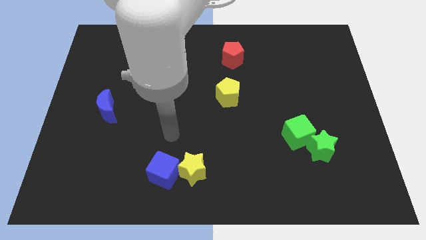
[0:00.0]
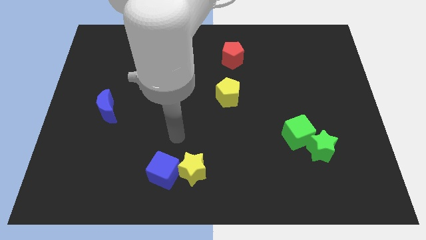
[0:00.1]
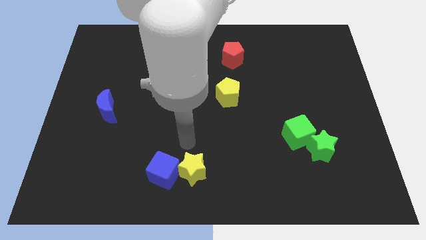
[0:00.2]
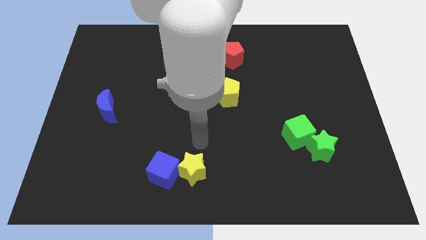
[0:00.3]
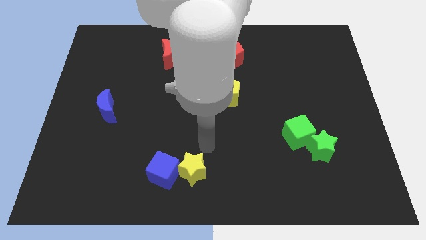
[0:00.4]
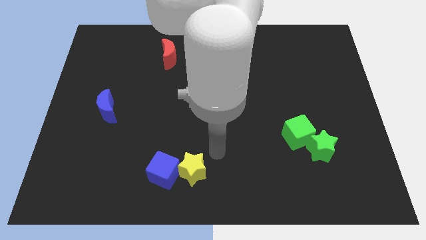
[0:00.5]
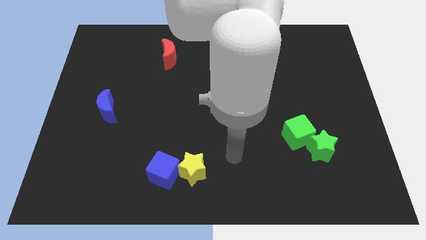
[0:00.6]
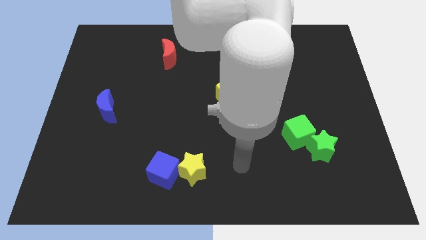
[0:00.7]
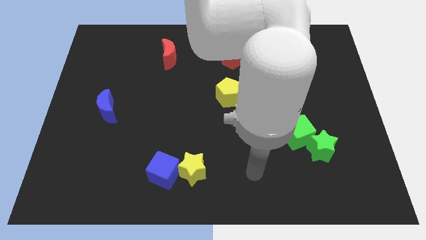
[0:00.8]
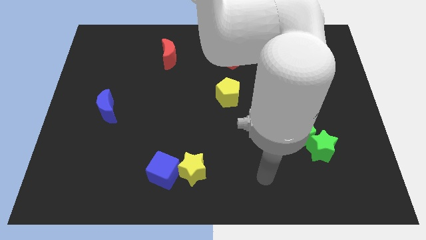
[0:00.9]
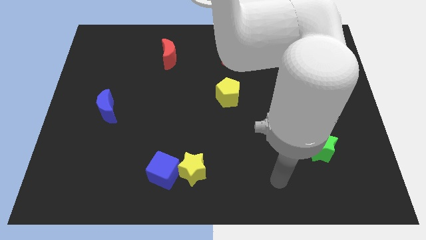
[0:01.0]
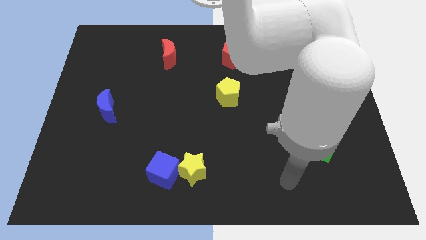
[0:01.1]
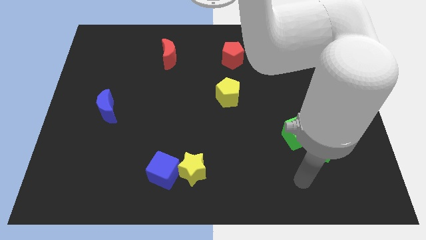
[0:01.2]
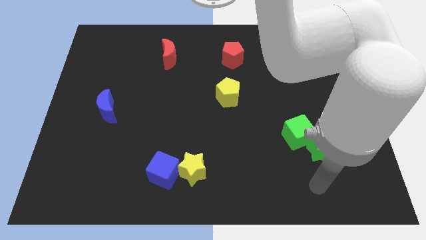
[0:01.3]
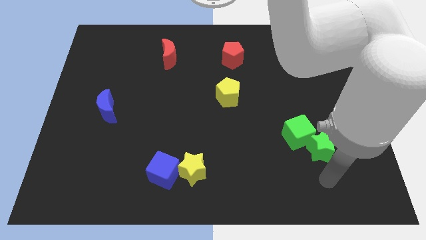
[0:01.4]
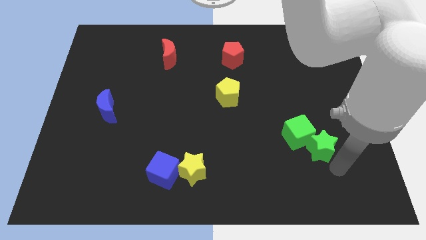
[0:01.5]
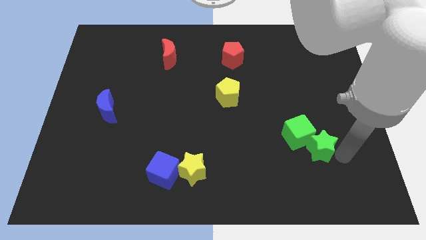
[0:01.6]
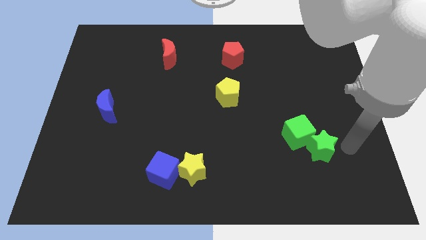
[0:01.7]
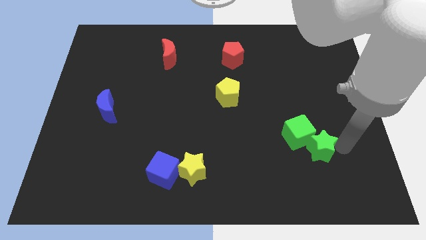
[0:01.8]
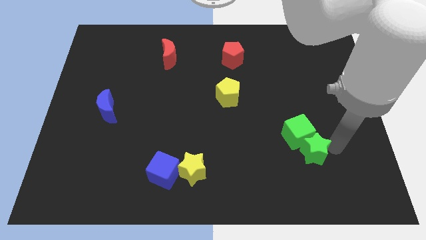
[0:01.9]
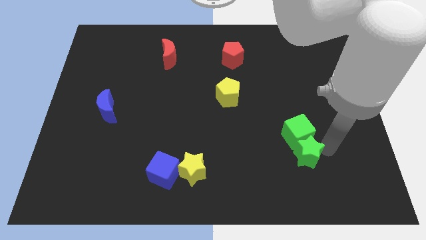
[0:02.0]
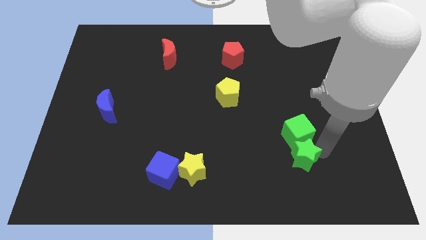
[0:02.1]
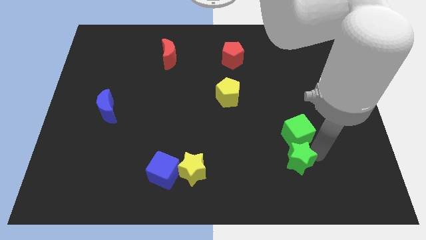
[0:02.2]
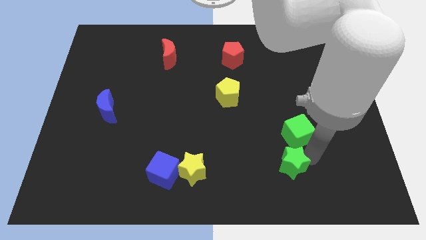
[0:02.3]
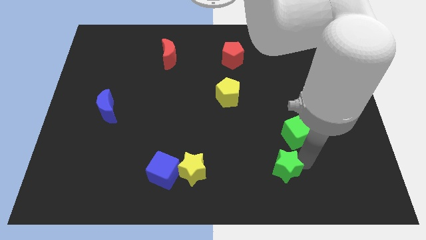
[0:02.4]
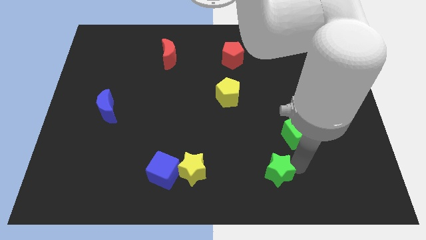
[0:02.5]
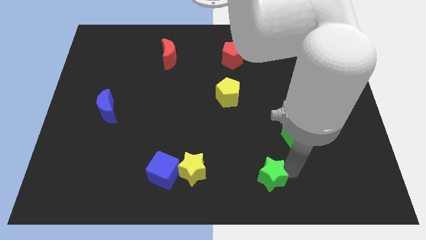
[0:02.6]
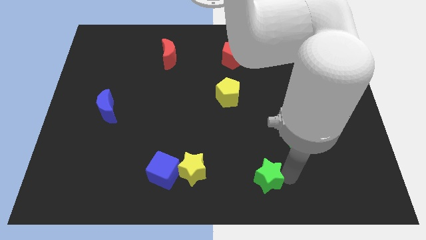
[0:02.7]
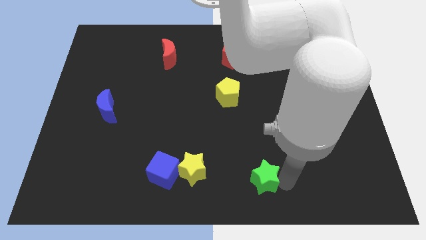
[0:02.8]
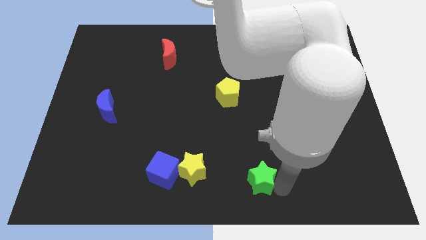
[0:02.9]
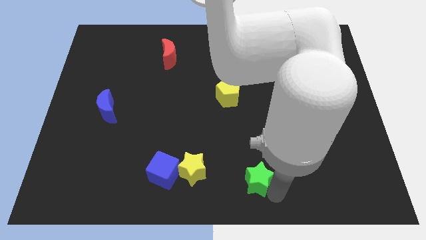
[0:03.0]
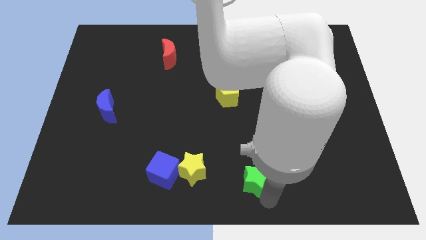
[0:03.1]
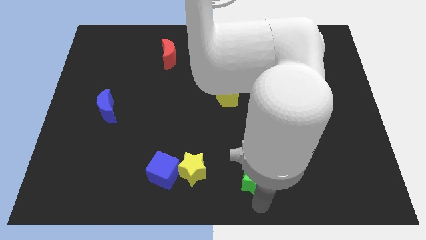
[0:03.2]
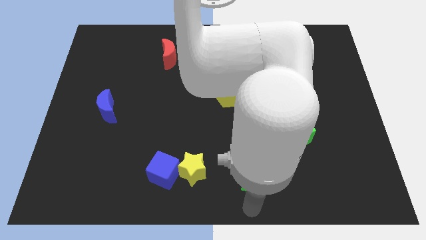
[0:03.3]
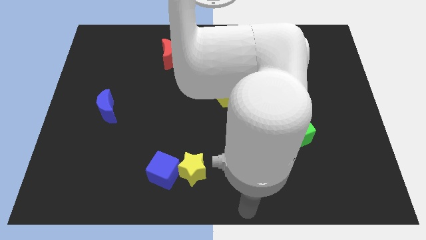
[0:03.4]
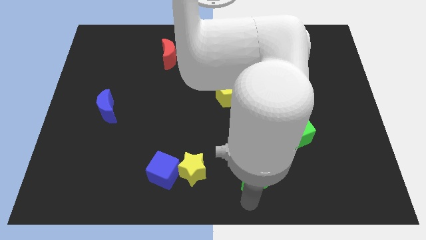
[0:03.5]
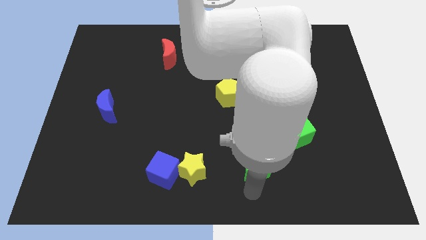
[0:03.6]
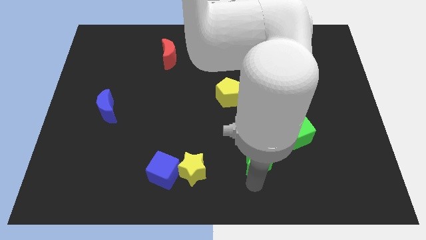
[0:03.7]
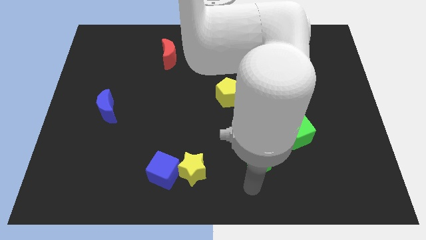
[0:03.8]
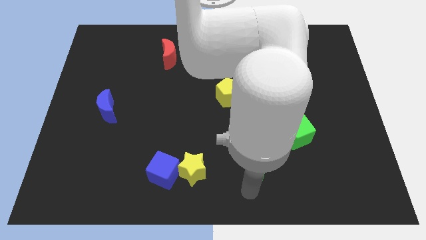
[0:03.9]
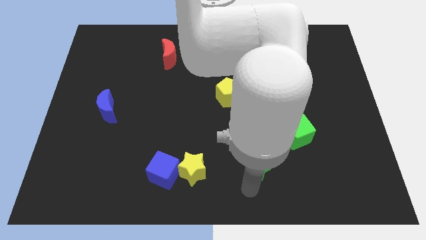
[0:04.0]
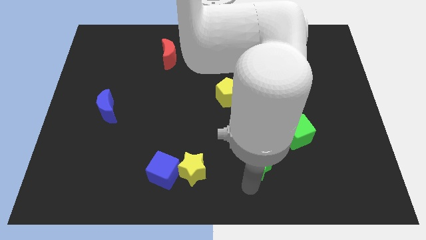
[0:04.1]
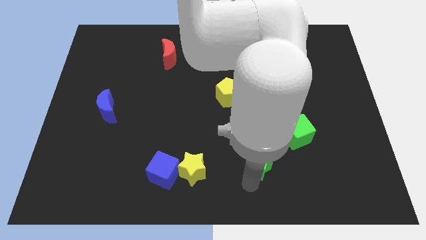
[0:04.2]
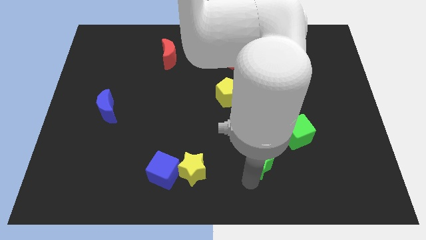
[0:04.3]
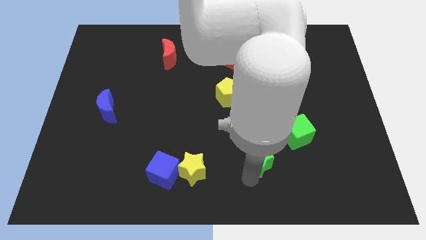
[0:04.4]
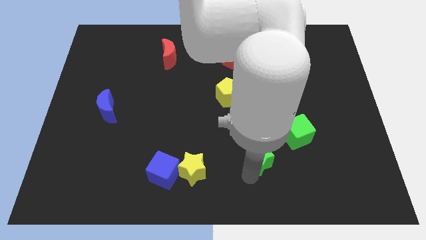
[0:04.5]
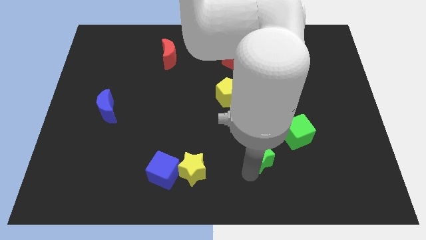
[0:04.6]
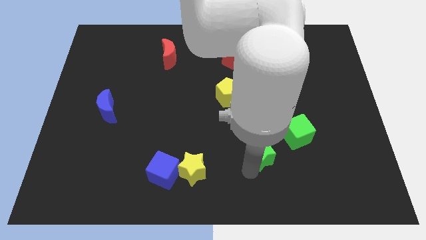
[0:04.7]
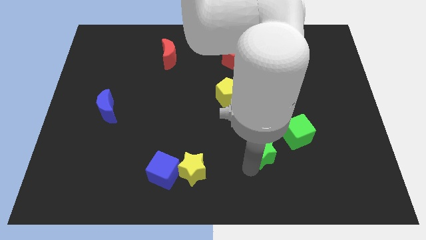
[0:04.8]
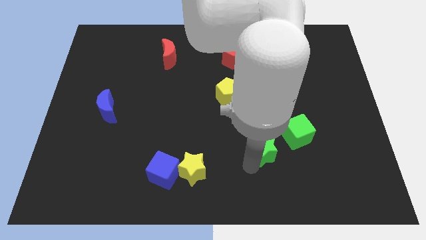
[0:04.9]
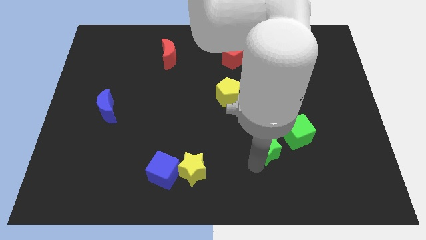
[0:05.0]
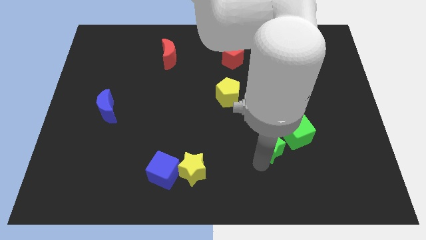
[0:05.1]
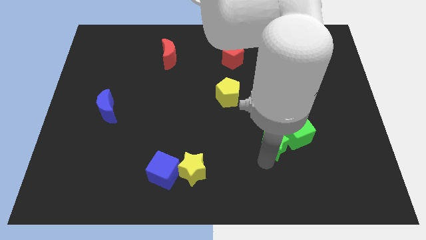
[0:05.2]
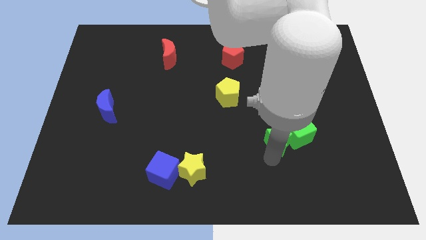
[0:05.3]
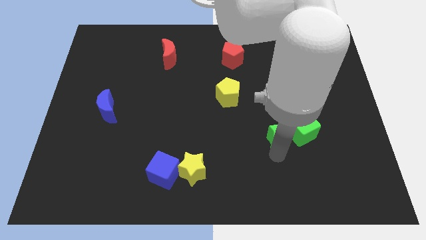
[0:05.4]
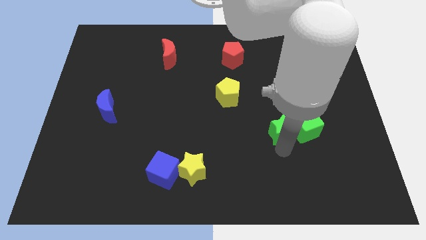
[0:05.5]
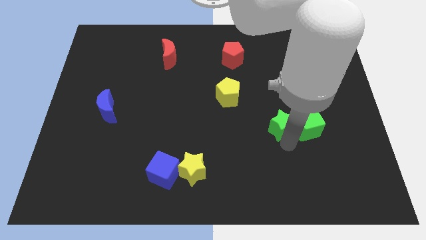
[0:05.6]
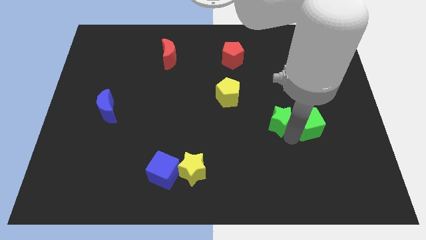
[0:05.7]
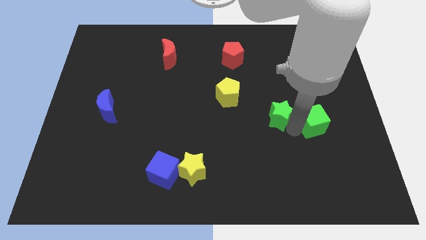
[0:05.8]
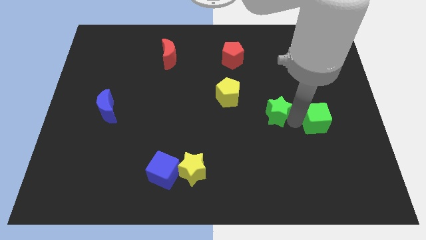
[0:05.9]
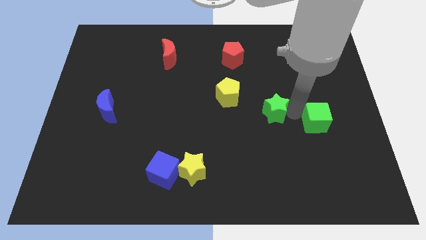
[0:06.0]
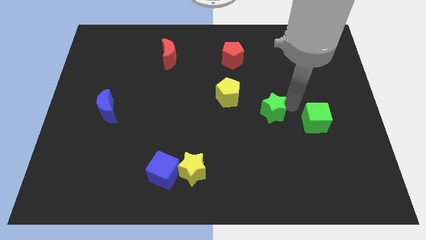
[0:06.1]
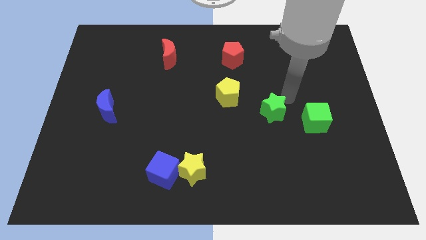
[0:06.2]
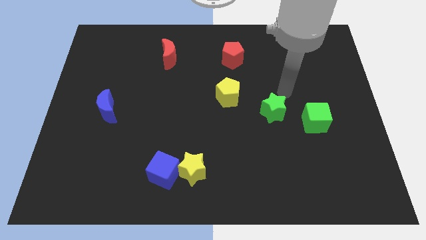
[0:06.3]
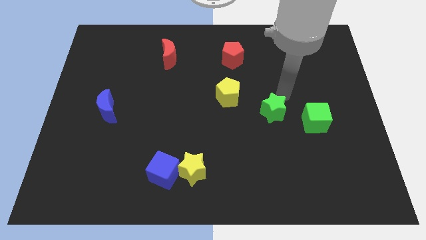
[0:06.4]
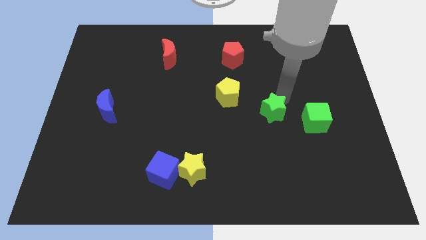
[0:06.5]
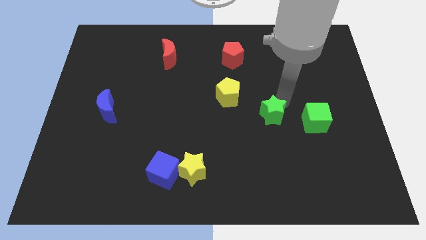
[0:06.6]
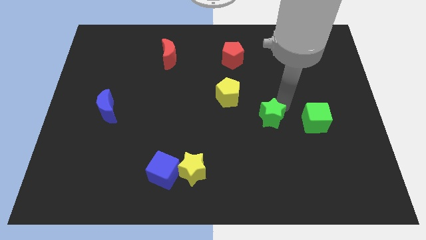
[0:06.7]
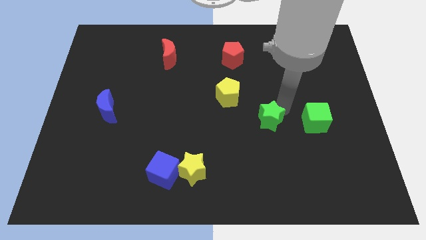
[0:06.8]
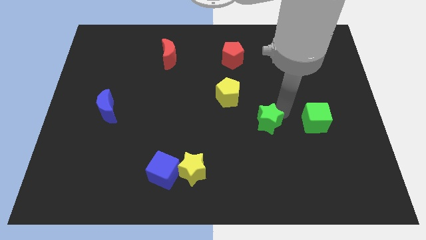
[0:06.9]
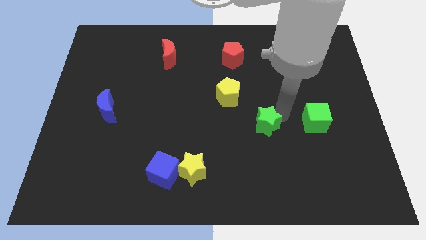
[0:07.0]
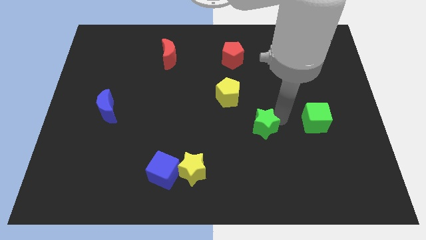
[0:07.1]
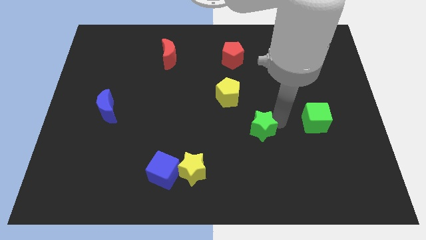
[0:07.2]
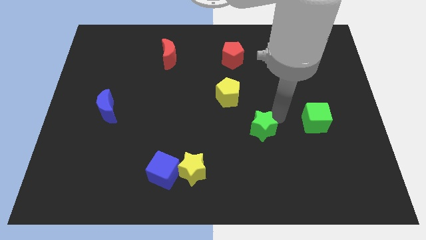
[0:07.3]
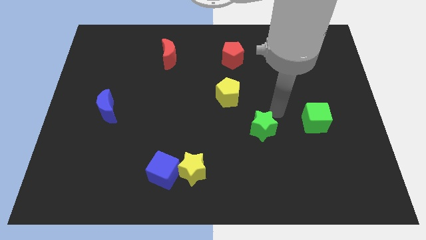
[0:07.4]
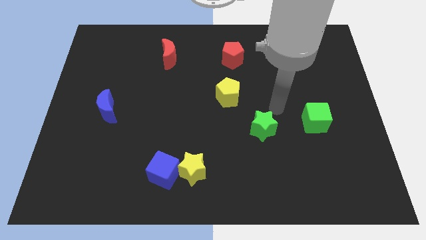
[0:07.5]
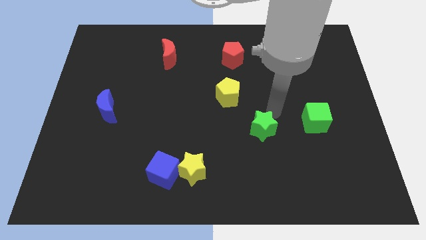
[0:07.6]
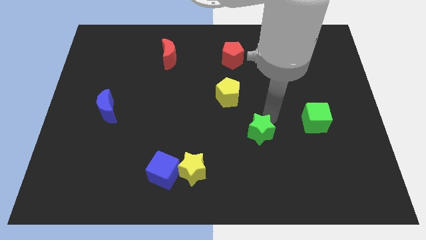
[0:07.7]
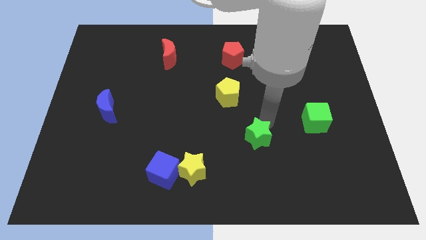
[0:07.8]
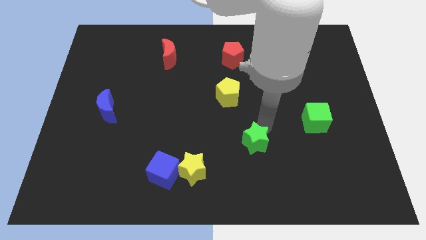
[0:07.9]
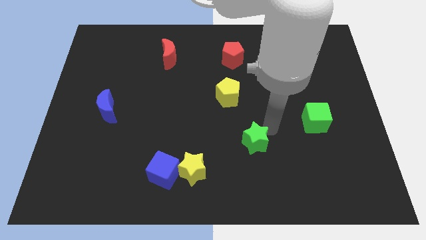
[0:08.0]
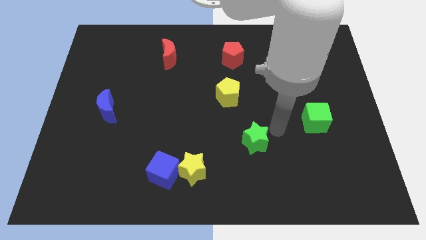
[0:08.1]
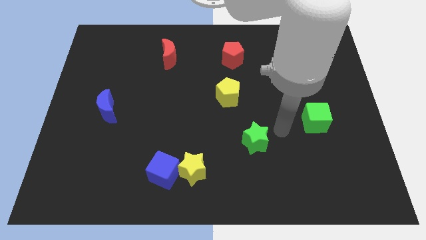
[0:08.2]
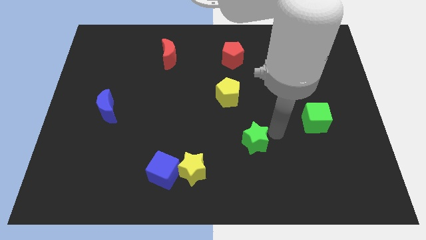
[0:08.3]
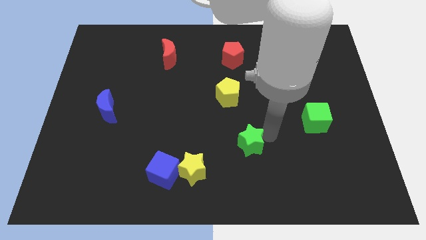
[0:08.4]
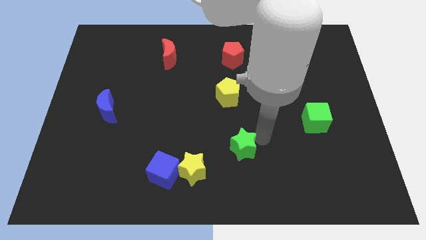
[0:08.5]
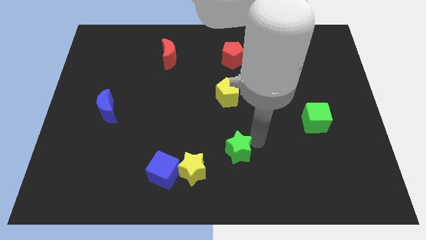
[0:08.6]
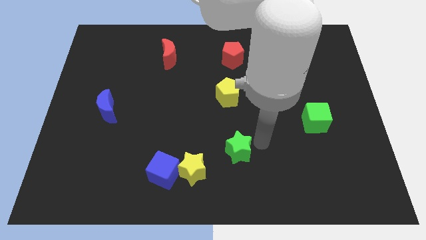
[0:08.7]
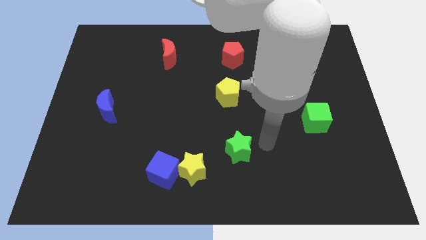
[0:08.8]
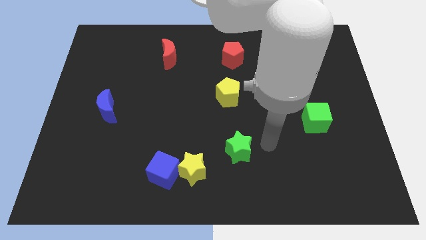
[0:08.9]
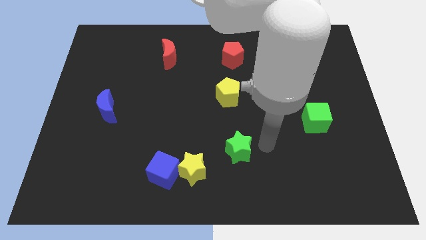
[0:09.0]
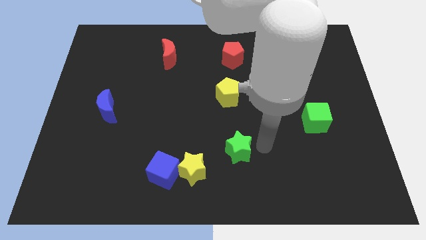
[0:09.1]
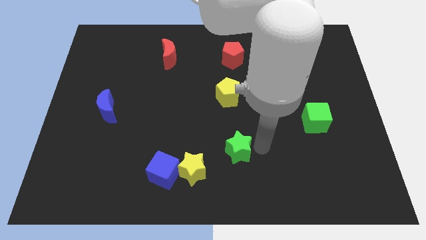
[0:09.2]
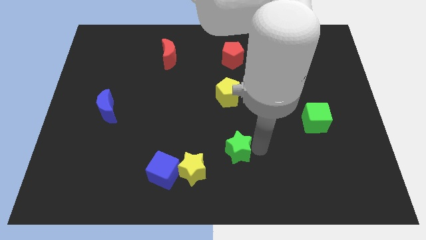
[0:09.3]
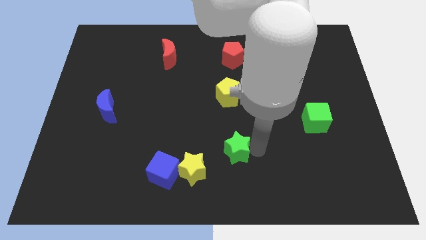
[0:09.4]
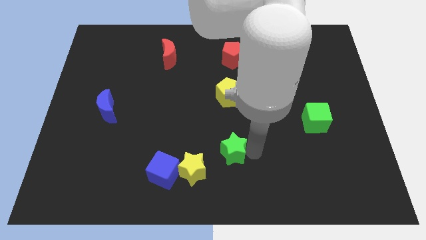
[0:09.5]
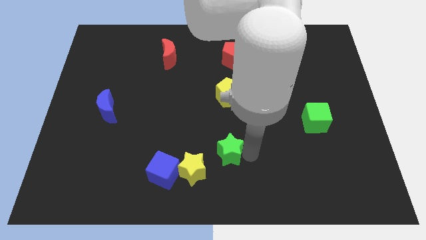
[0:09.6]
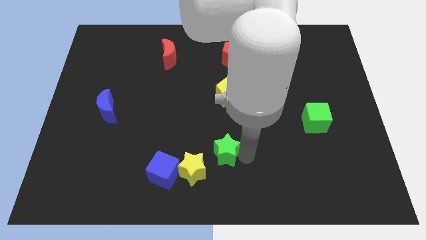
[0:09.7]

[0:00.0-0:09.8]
move the green star left
